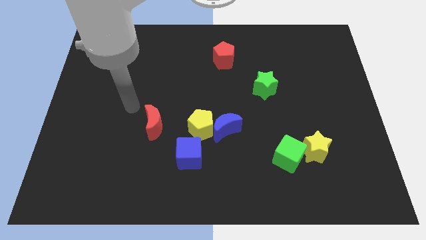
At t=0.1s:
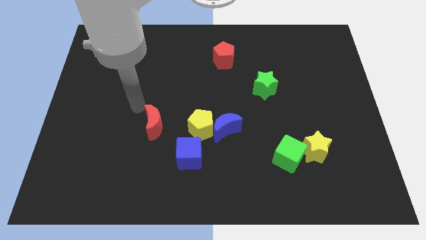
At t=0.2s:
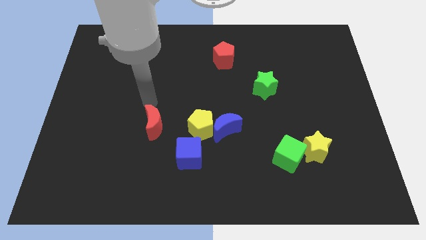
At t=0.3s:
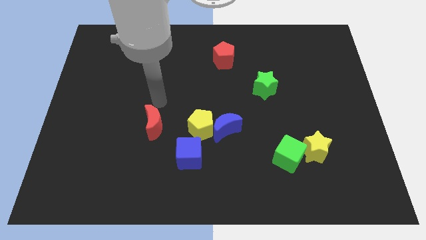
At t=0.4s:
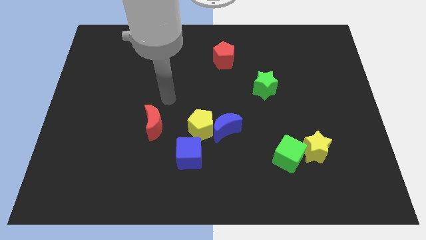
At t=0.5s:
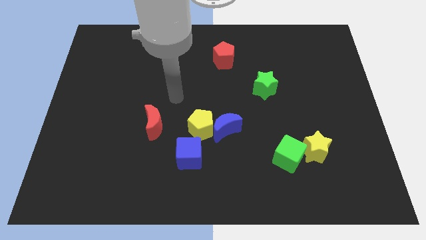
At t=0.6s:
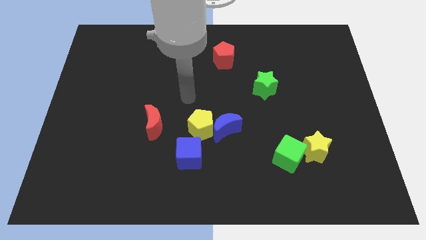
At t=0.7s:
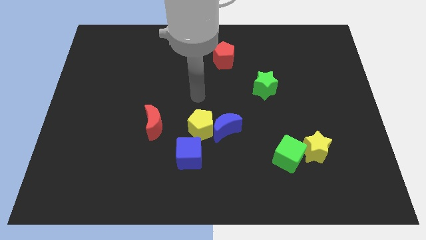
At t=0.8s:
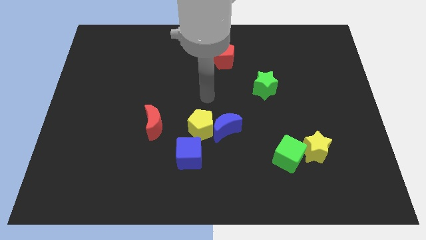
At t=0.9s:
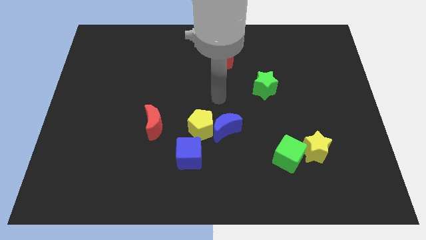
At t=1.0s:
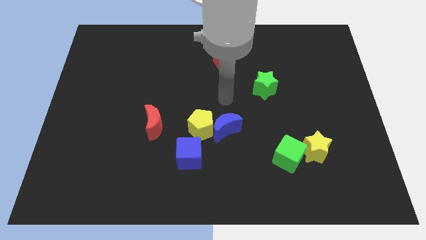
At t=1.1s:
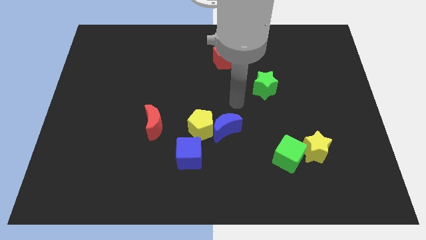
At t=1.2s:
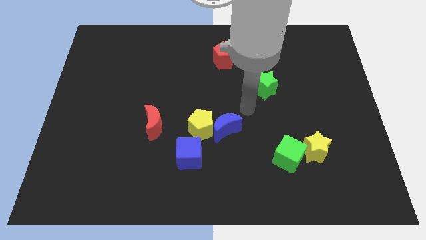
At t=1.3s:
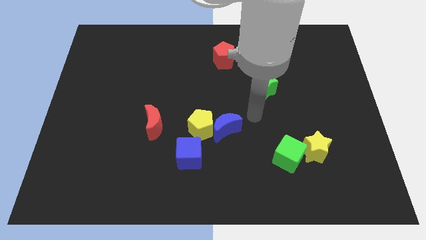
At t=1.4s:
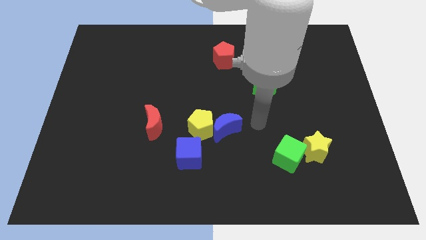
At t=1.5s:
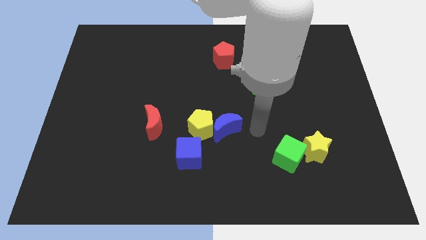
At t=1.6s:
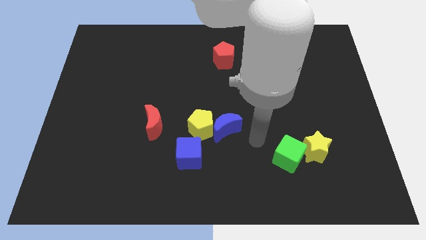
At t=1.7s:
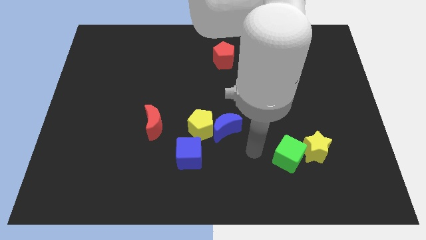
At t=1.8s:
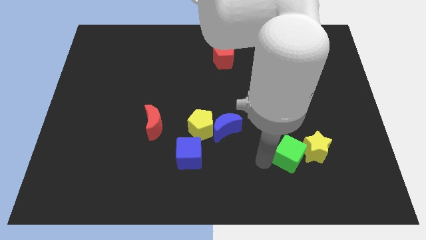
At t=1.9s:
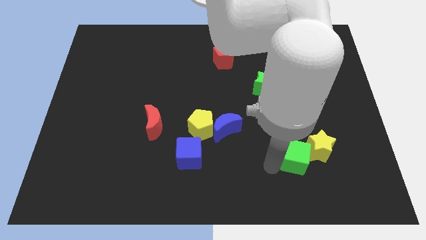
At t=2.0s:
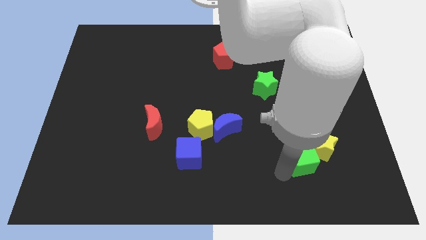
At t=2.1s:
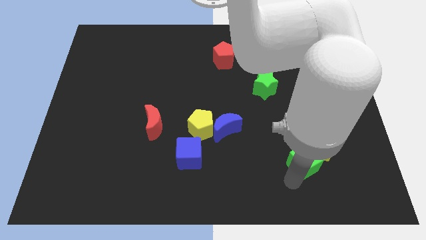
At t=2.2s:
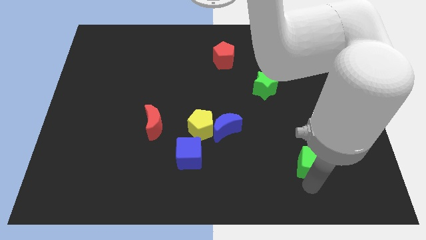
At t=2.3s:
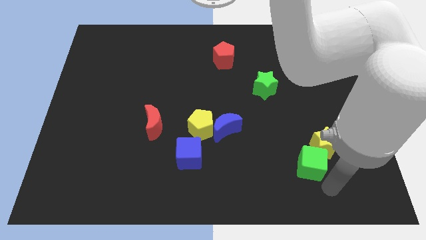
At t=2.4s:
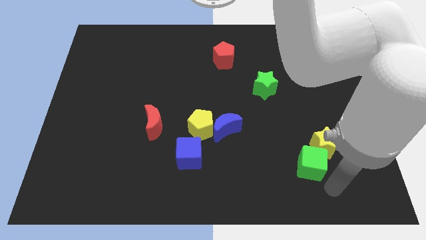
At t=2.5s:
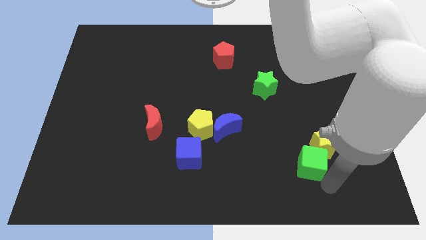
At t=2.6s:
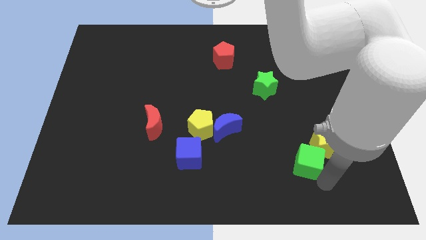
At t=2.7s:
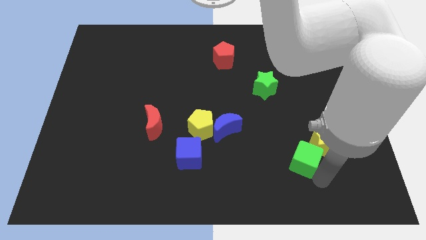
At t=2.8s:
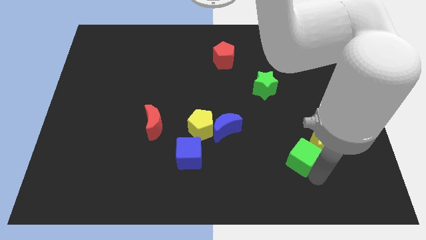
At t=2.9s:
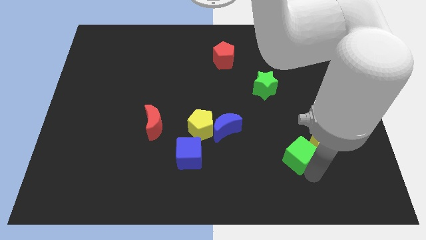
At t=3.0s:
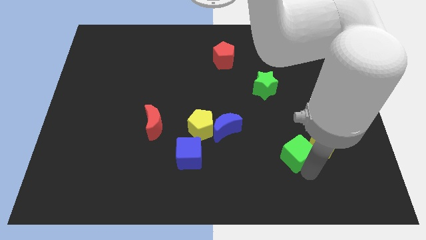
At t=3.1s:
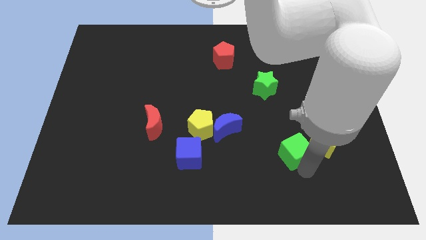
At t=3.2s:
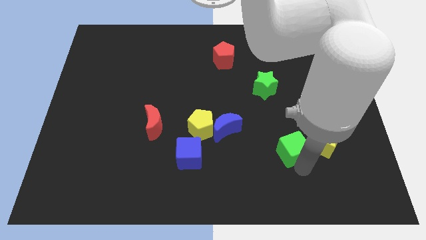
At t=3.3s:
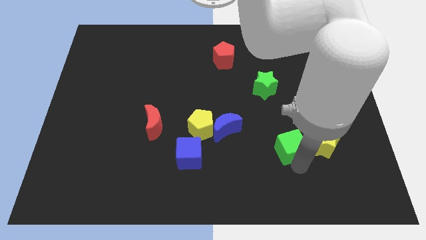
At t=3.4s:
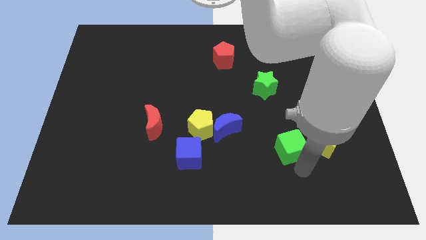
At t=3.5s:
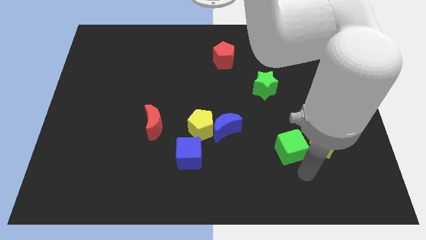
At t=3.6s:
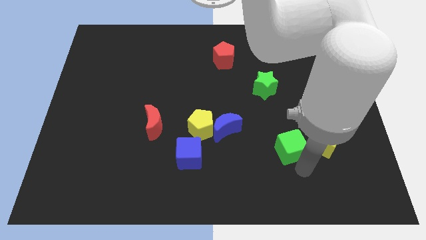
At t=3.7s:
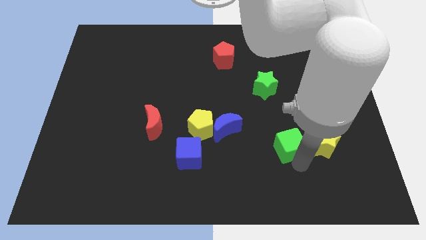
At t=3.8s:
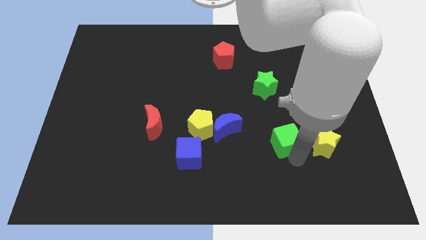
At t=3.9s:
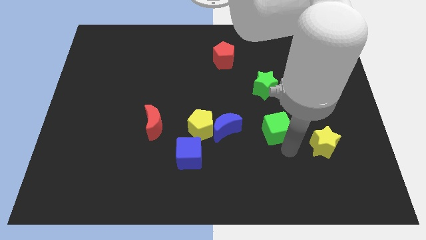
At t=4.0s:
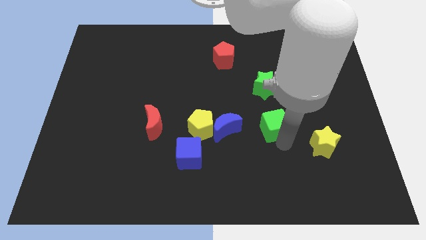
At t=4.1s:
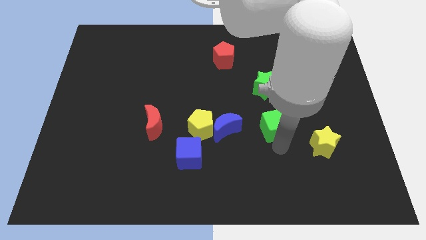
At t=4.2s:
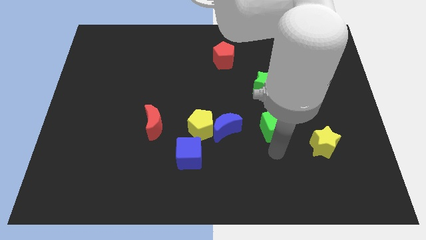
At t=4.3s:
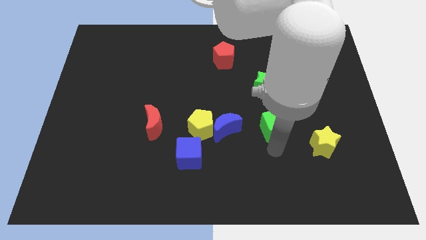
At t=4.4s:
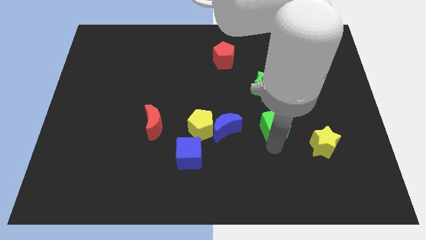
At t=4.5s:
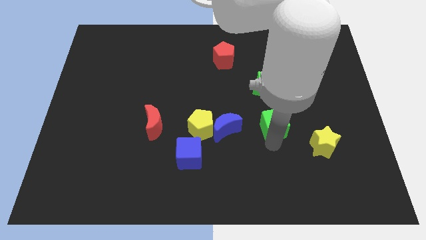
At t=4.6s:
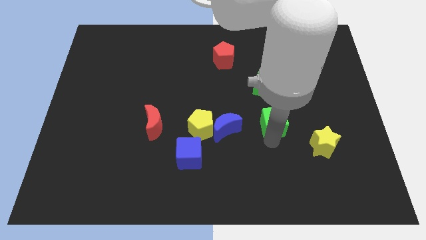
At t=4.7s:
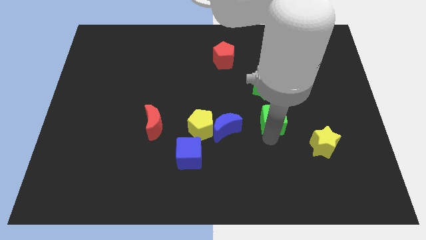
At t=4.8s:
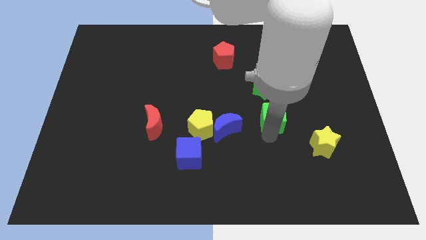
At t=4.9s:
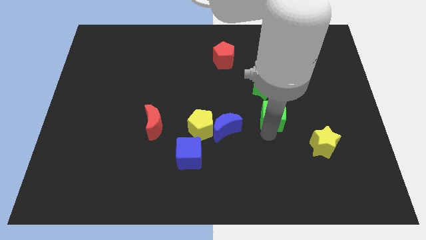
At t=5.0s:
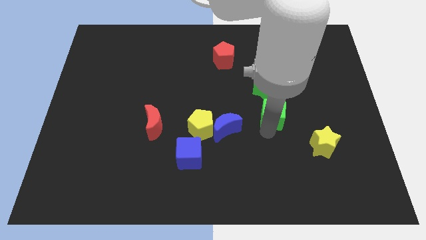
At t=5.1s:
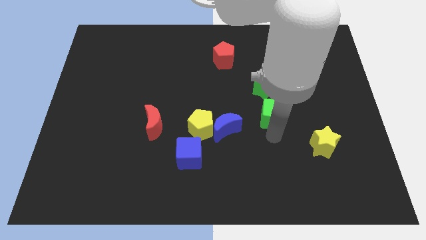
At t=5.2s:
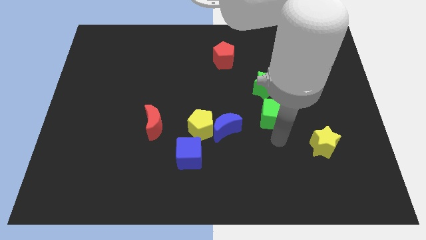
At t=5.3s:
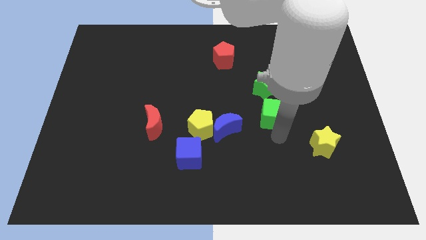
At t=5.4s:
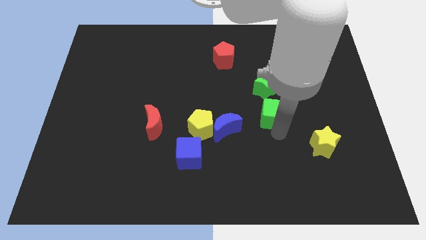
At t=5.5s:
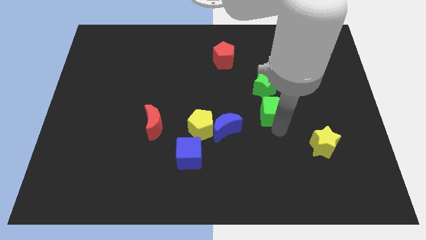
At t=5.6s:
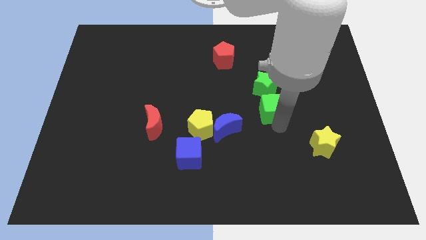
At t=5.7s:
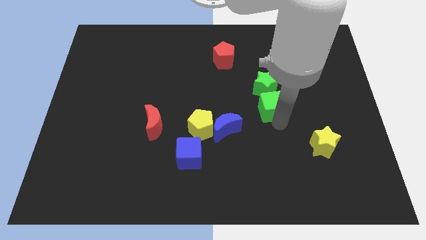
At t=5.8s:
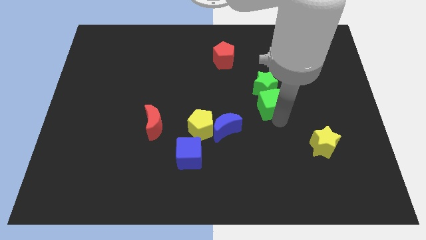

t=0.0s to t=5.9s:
put the green cube towards the green star

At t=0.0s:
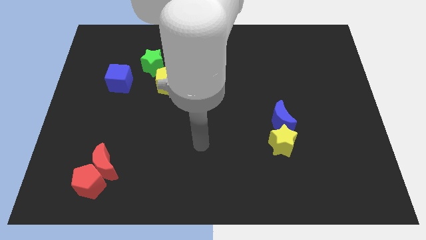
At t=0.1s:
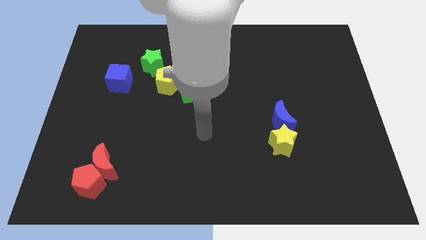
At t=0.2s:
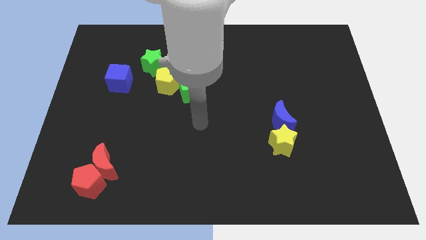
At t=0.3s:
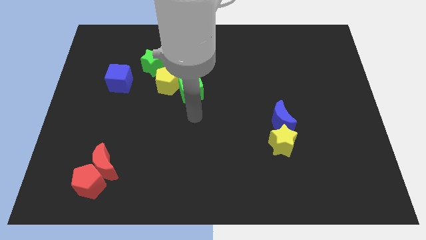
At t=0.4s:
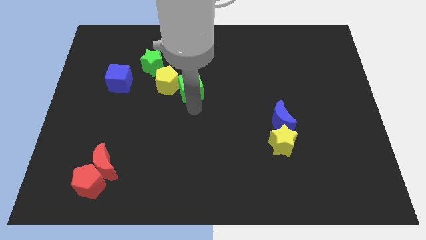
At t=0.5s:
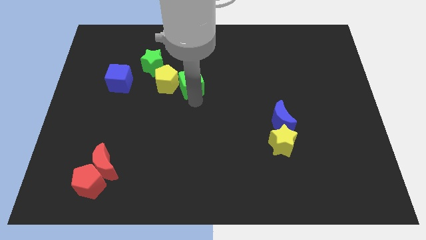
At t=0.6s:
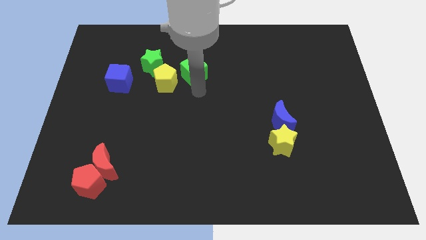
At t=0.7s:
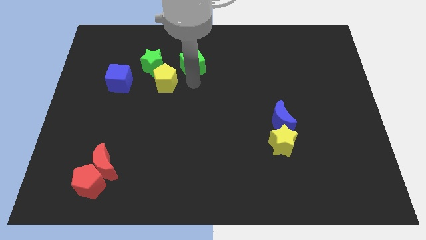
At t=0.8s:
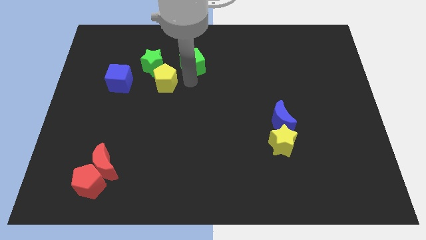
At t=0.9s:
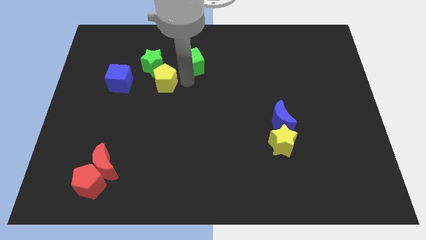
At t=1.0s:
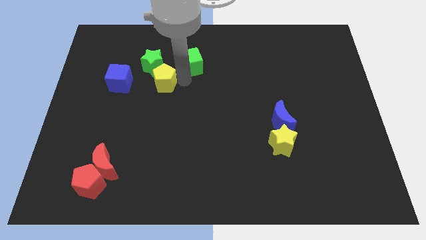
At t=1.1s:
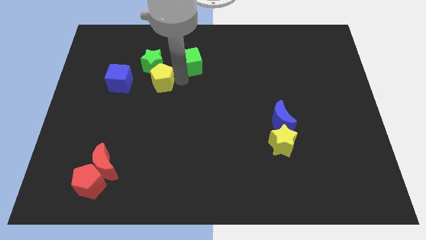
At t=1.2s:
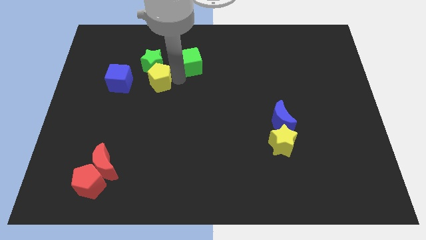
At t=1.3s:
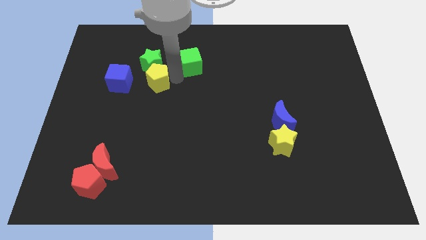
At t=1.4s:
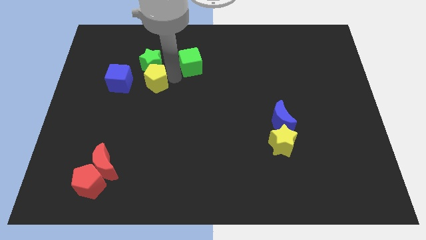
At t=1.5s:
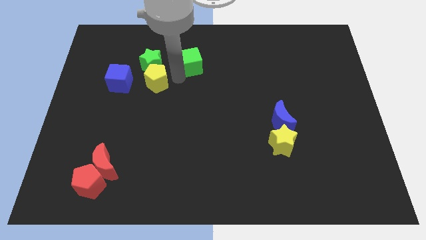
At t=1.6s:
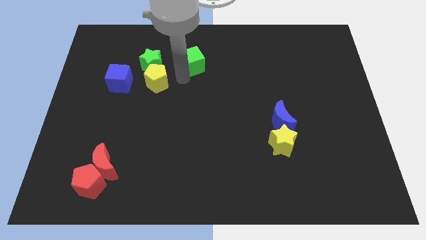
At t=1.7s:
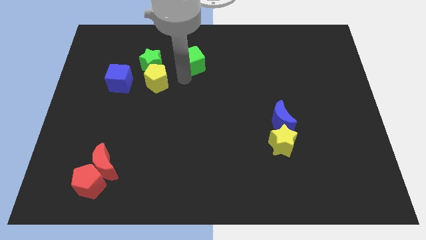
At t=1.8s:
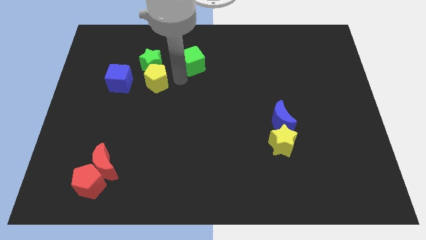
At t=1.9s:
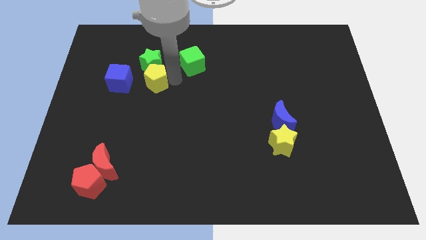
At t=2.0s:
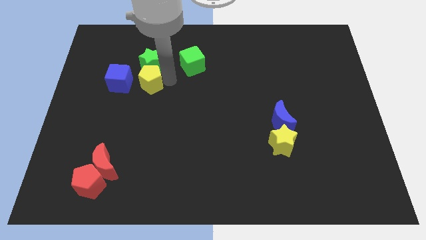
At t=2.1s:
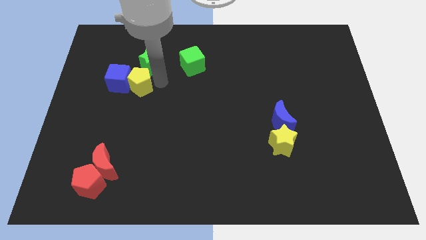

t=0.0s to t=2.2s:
push the yellow pentagon close to the blue cube
